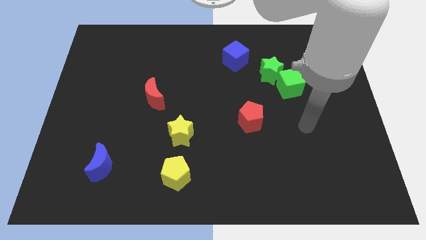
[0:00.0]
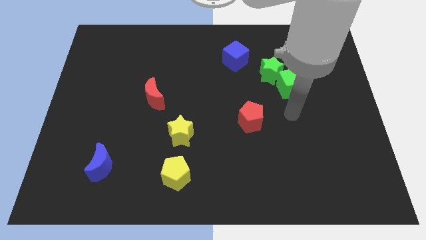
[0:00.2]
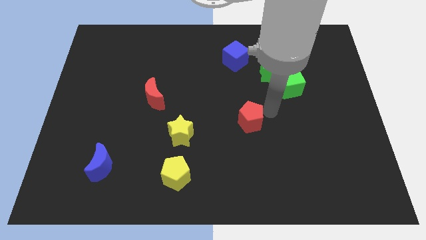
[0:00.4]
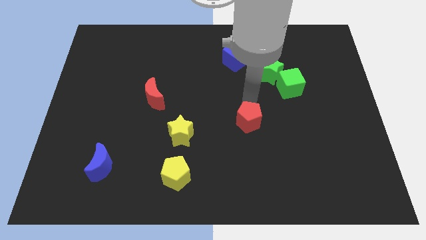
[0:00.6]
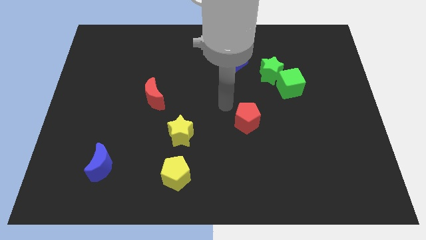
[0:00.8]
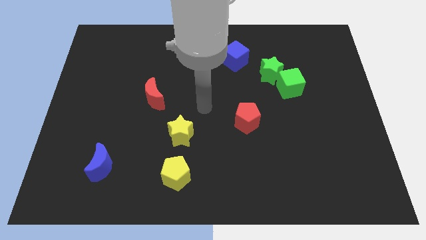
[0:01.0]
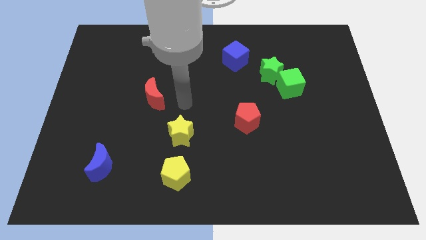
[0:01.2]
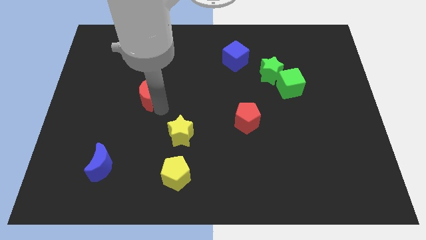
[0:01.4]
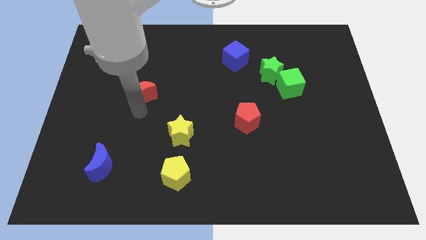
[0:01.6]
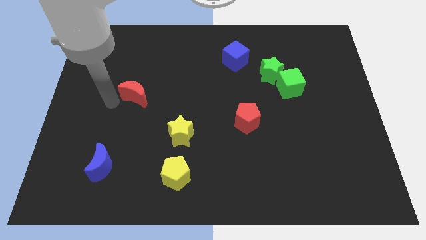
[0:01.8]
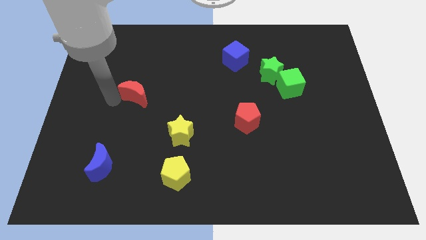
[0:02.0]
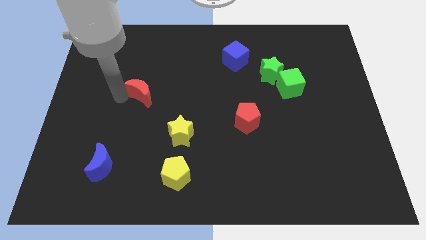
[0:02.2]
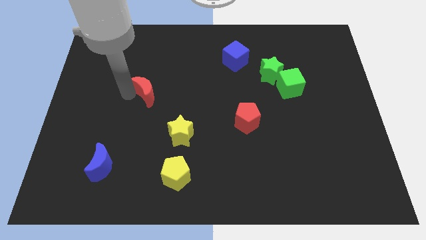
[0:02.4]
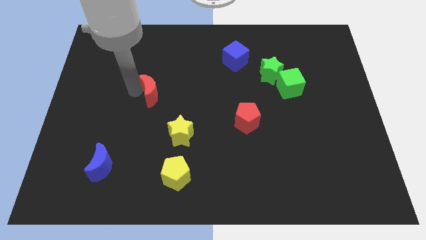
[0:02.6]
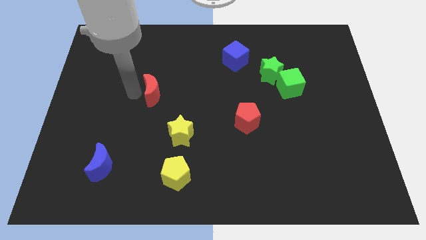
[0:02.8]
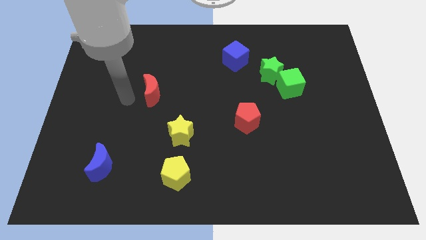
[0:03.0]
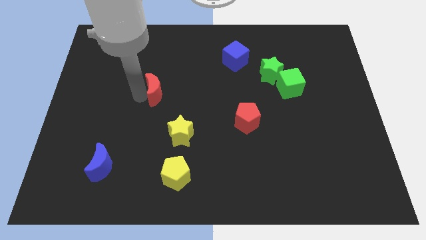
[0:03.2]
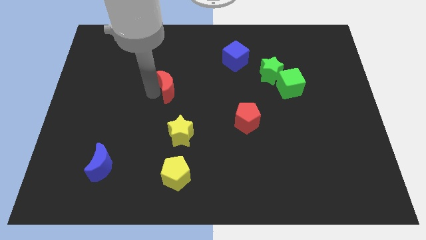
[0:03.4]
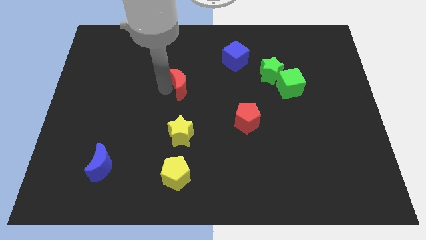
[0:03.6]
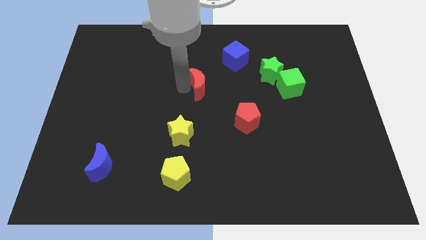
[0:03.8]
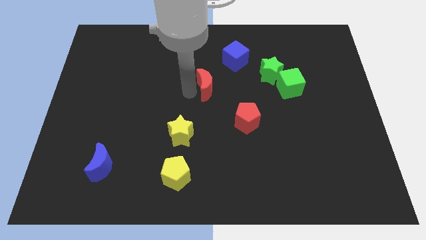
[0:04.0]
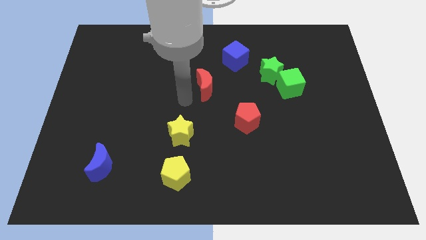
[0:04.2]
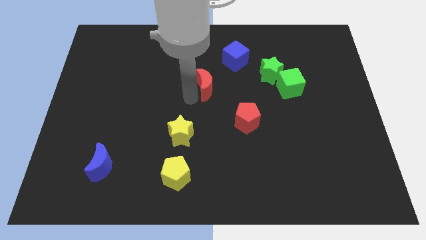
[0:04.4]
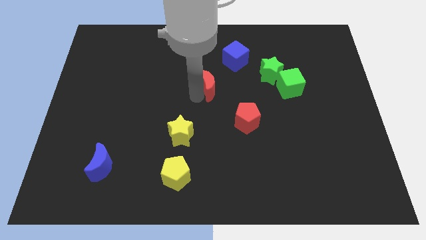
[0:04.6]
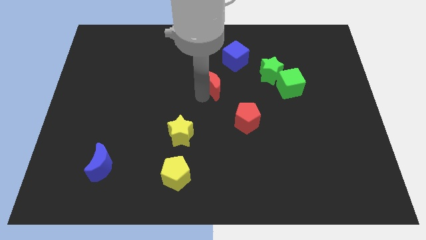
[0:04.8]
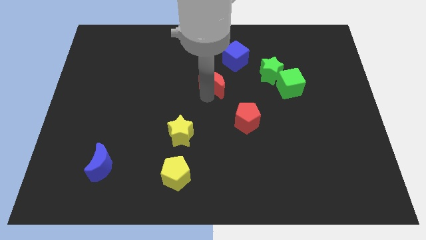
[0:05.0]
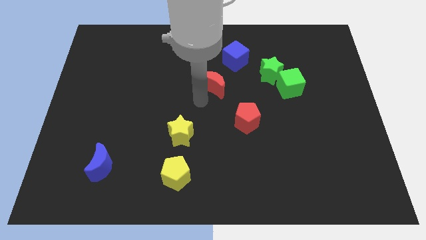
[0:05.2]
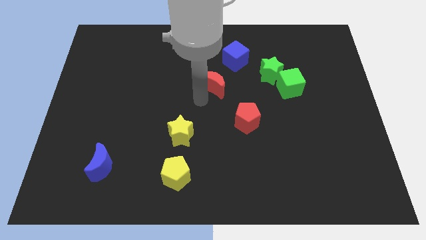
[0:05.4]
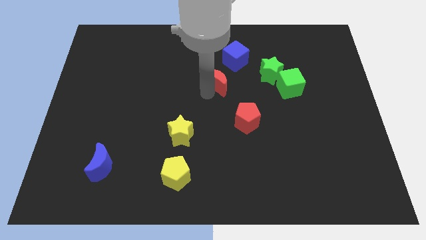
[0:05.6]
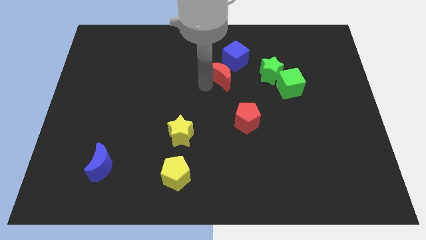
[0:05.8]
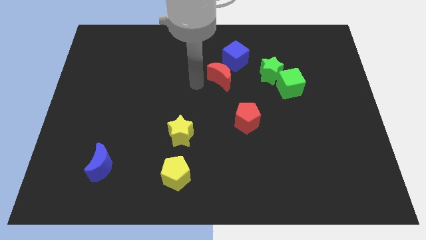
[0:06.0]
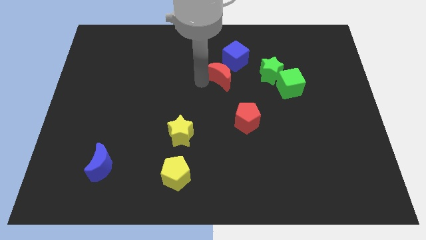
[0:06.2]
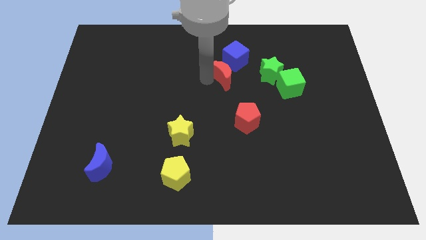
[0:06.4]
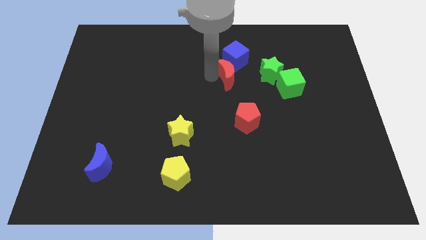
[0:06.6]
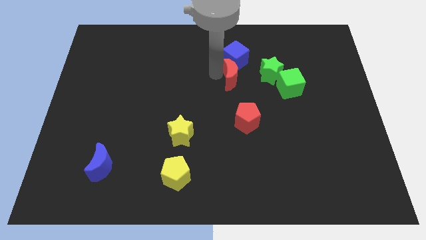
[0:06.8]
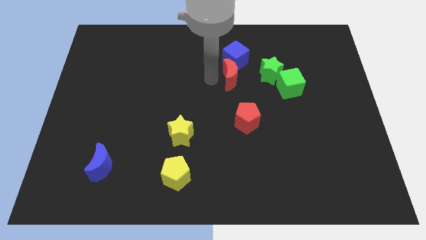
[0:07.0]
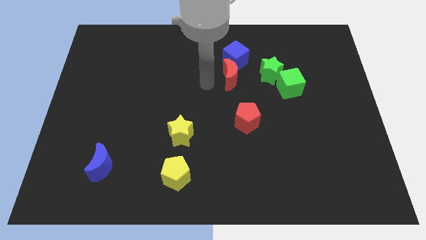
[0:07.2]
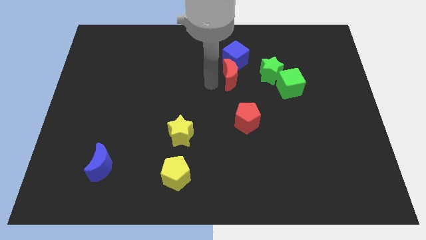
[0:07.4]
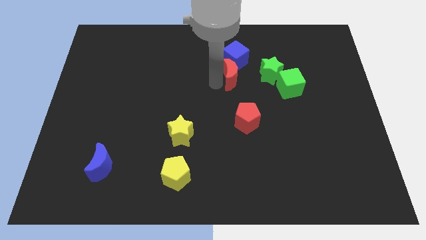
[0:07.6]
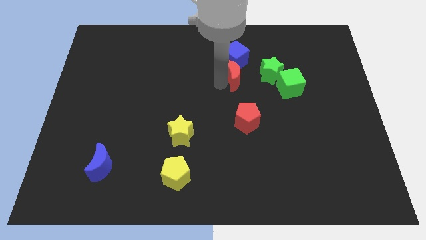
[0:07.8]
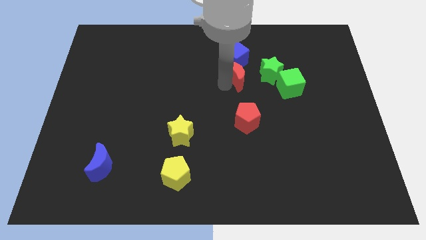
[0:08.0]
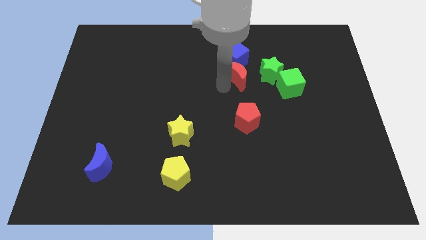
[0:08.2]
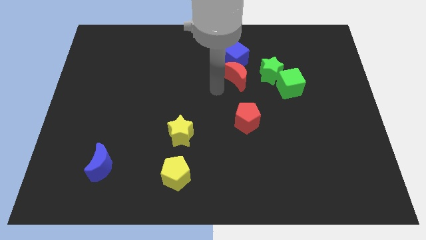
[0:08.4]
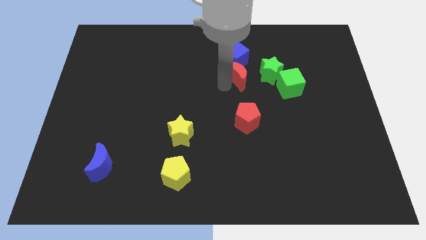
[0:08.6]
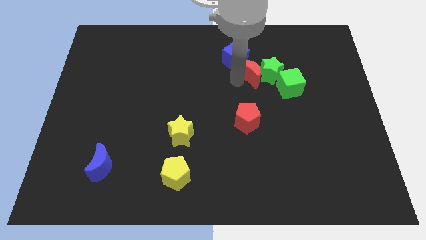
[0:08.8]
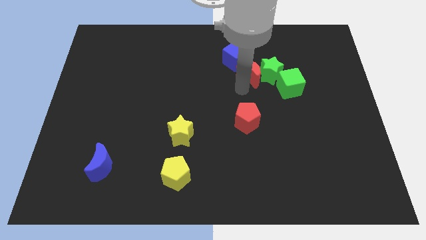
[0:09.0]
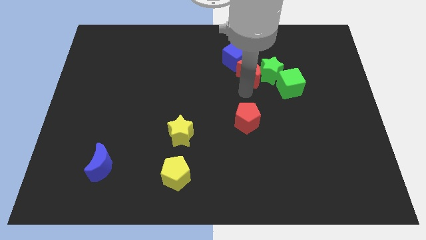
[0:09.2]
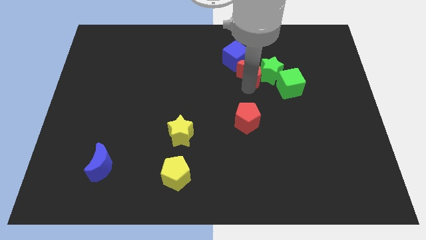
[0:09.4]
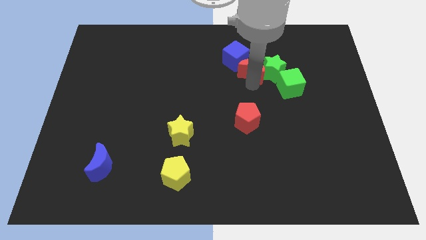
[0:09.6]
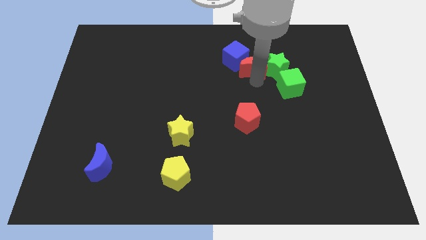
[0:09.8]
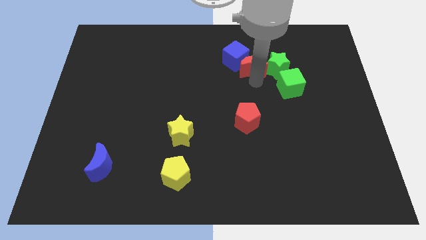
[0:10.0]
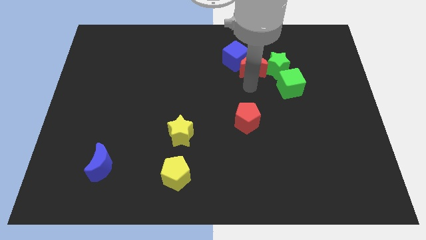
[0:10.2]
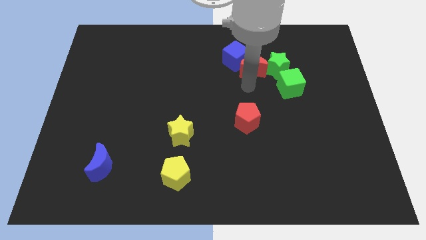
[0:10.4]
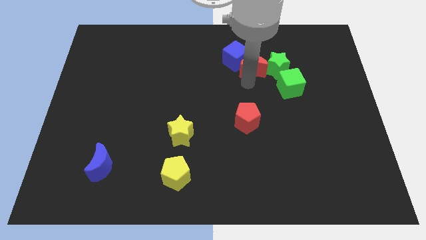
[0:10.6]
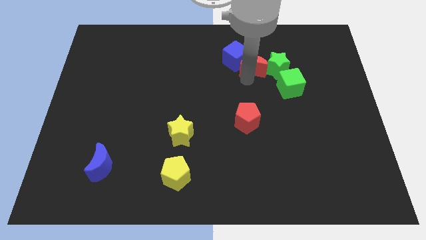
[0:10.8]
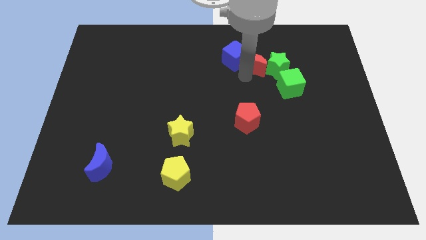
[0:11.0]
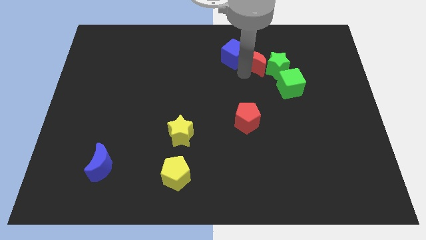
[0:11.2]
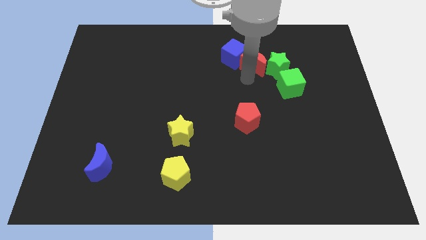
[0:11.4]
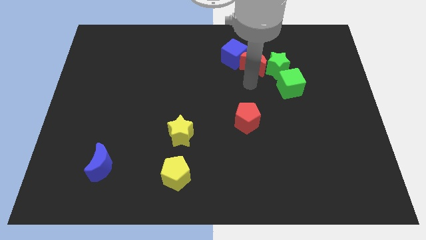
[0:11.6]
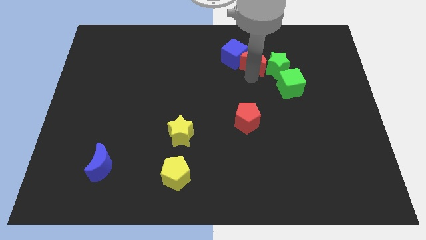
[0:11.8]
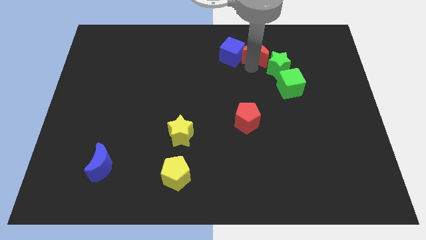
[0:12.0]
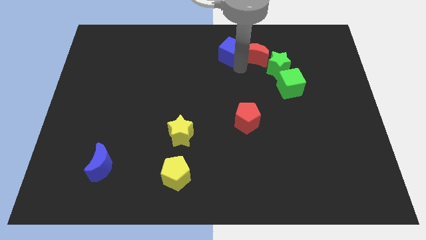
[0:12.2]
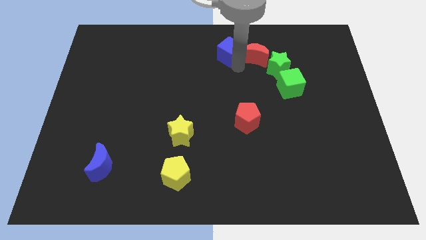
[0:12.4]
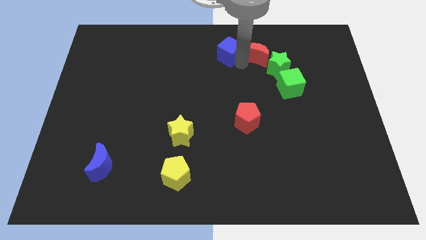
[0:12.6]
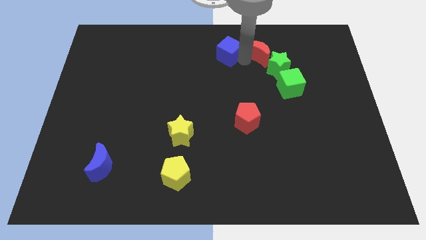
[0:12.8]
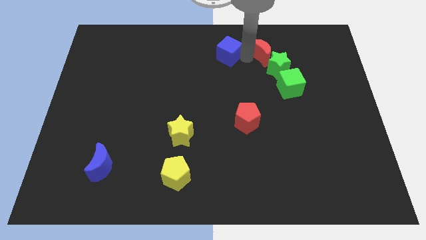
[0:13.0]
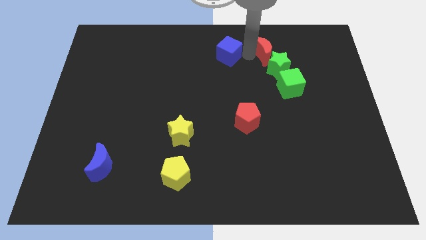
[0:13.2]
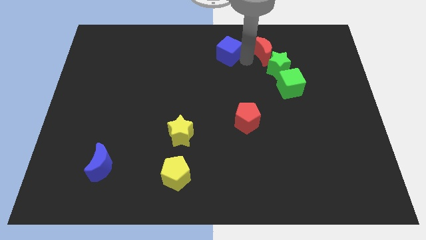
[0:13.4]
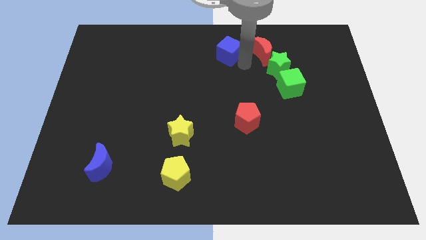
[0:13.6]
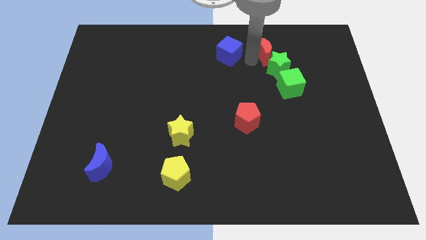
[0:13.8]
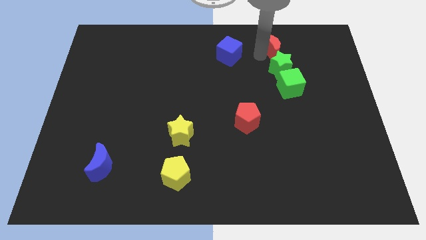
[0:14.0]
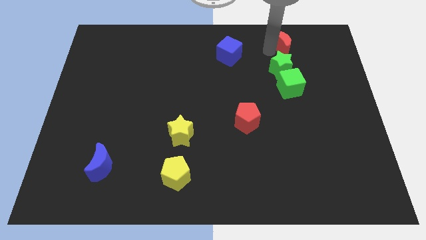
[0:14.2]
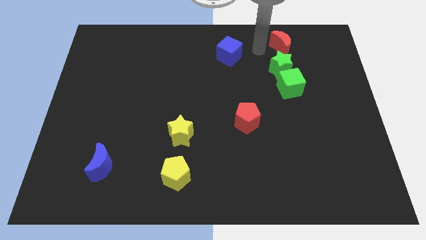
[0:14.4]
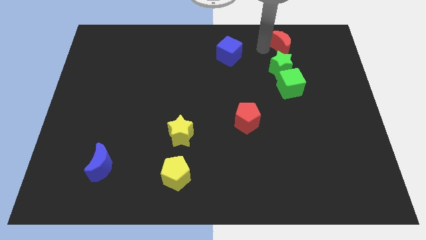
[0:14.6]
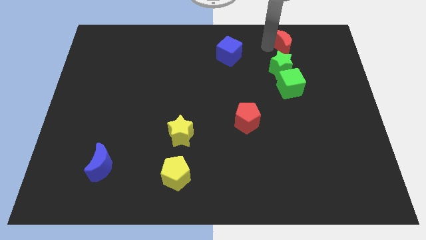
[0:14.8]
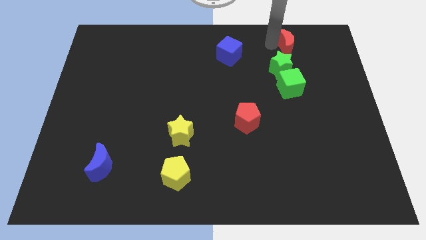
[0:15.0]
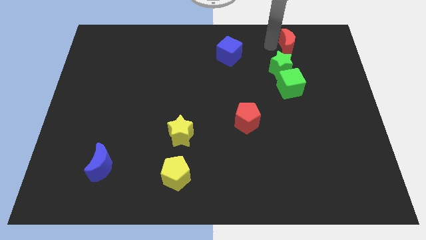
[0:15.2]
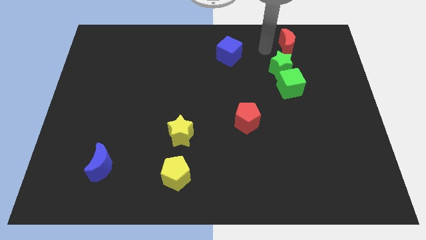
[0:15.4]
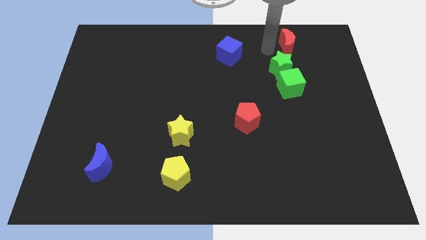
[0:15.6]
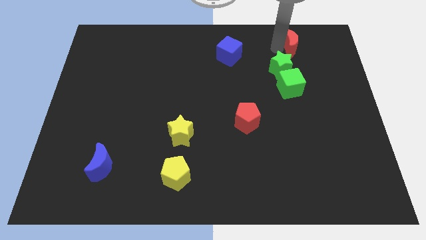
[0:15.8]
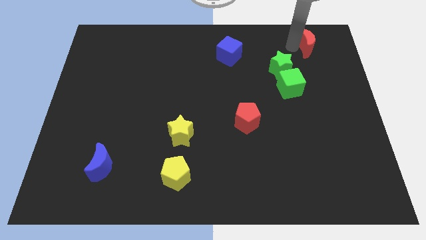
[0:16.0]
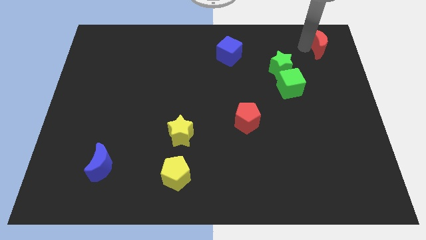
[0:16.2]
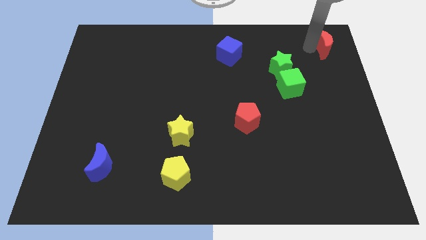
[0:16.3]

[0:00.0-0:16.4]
move the red moon to the top right of the board
